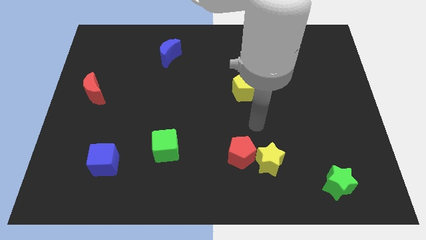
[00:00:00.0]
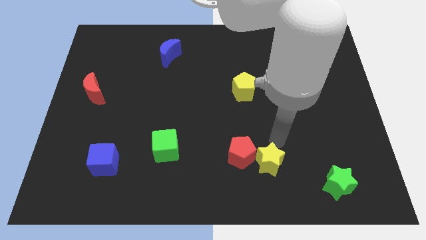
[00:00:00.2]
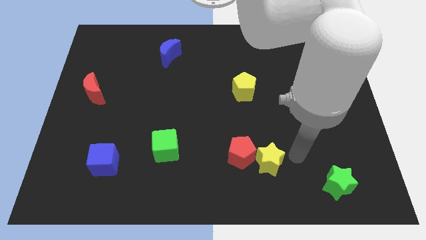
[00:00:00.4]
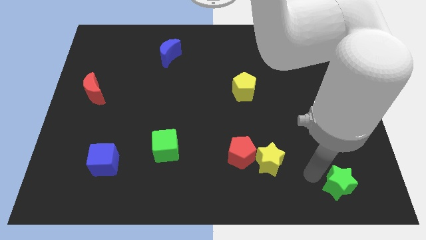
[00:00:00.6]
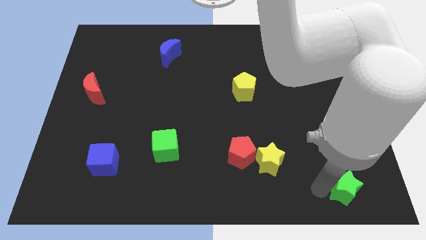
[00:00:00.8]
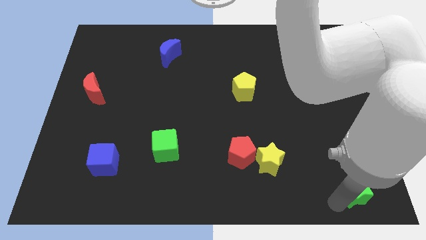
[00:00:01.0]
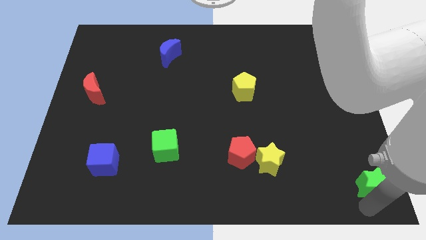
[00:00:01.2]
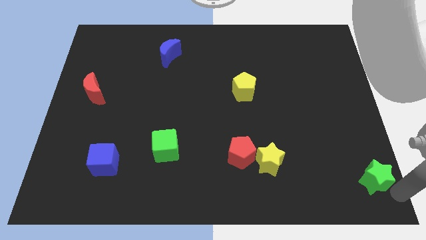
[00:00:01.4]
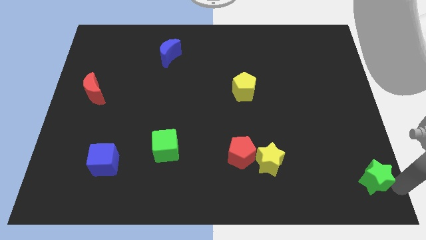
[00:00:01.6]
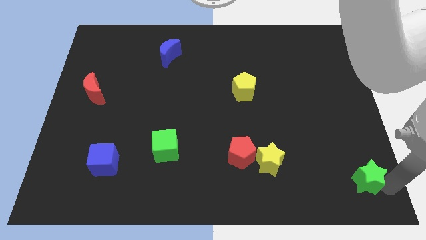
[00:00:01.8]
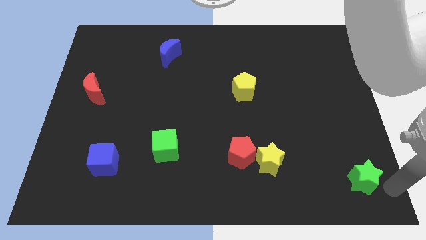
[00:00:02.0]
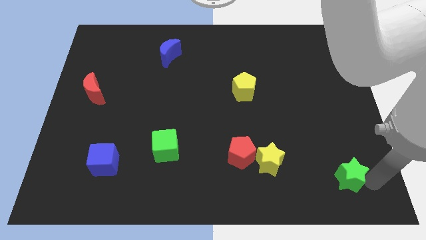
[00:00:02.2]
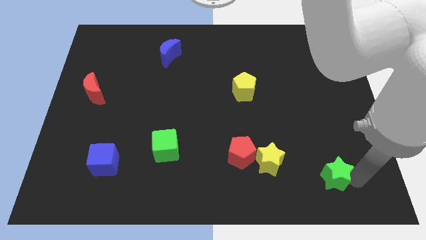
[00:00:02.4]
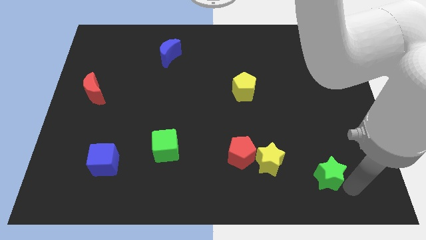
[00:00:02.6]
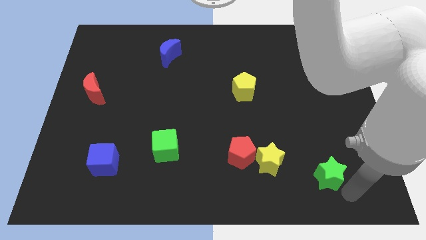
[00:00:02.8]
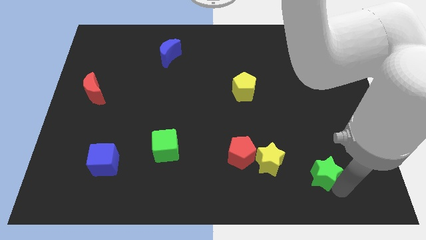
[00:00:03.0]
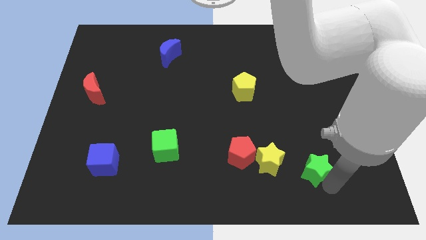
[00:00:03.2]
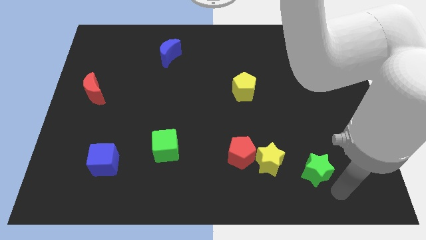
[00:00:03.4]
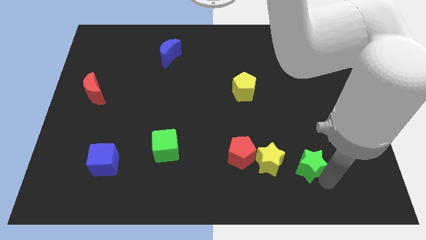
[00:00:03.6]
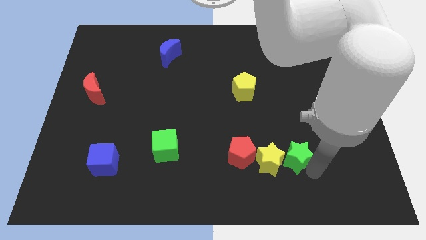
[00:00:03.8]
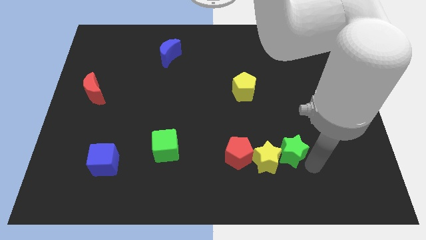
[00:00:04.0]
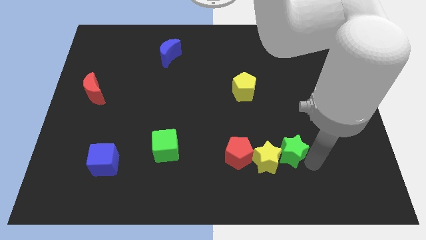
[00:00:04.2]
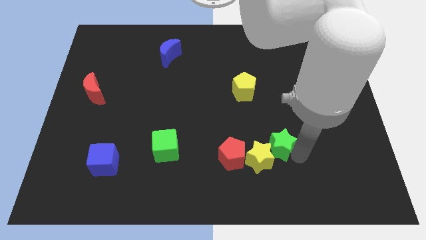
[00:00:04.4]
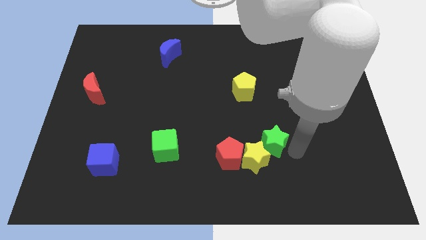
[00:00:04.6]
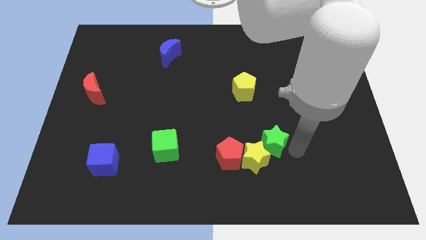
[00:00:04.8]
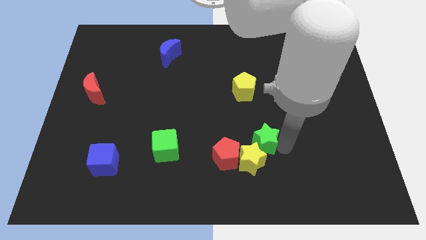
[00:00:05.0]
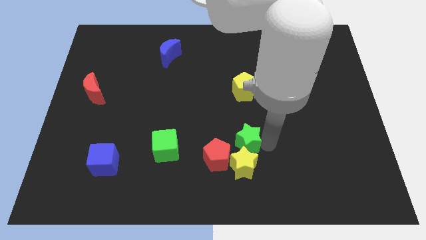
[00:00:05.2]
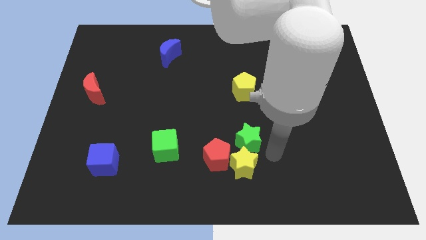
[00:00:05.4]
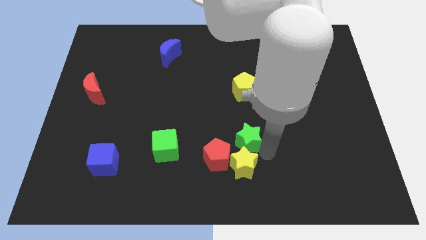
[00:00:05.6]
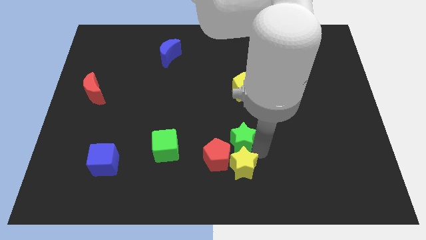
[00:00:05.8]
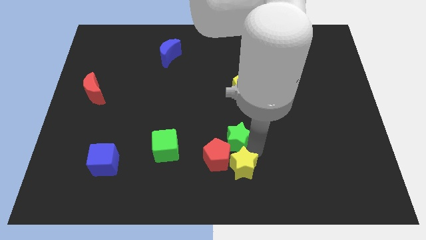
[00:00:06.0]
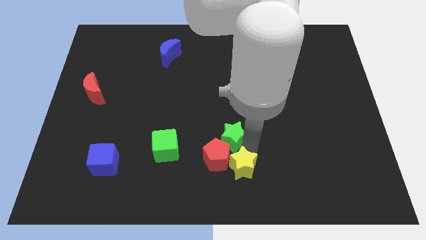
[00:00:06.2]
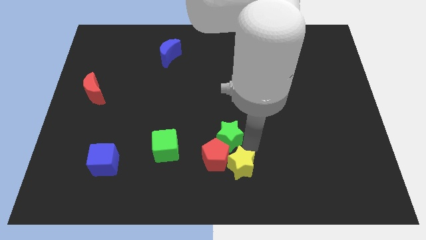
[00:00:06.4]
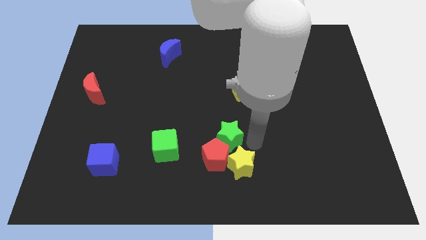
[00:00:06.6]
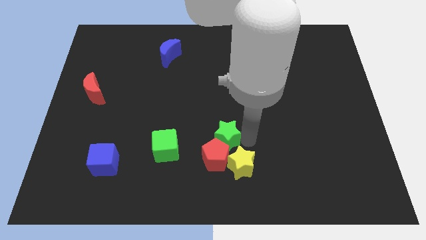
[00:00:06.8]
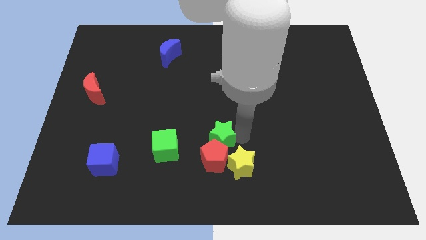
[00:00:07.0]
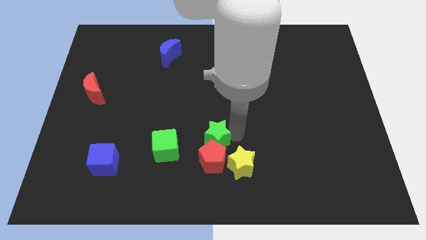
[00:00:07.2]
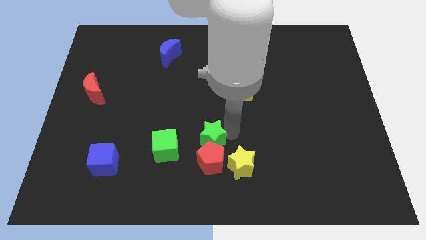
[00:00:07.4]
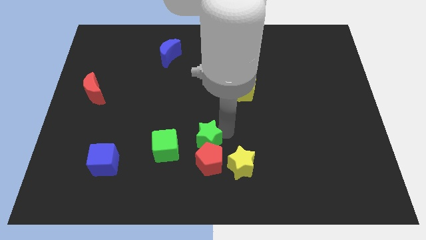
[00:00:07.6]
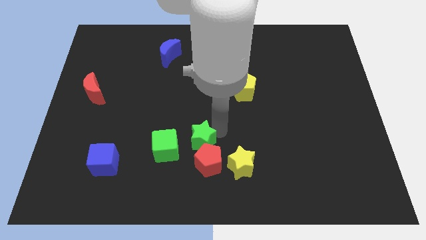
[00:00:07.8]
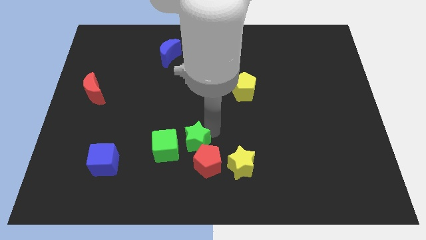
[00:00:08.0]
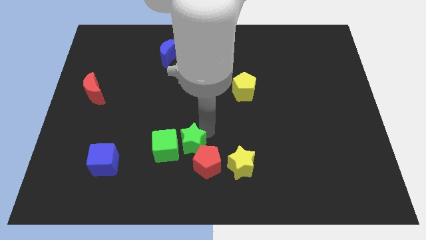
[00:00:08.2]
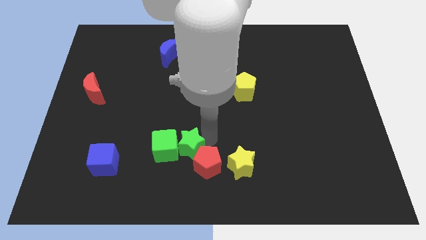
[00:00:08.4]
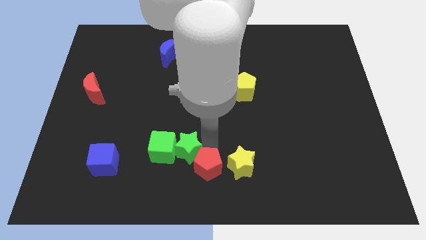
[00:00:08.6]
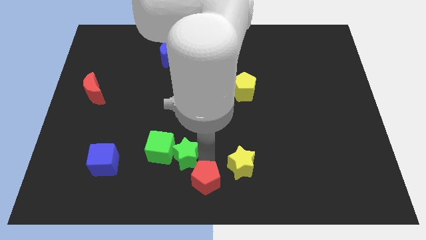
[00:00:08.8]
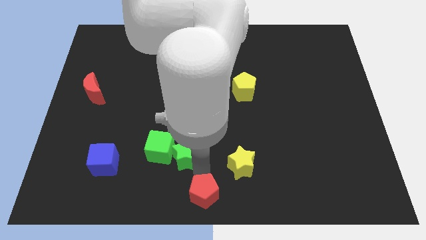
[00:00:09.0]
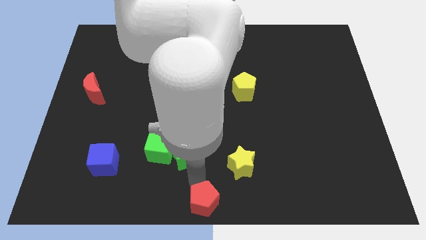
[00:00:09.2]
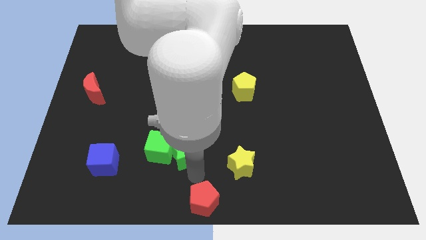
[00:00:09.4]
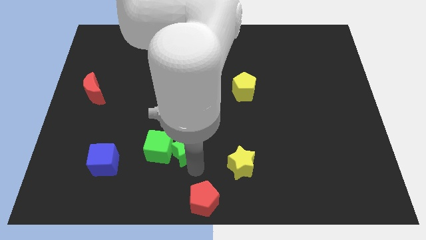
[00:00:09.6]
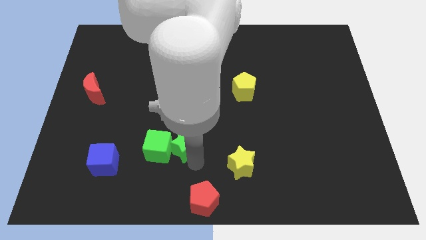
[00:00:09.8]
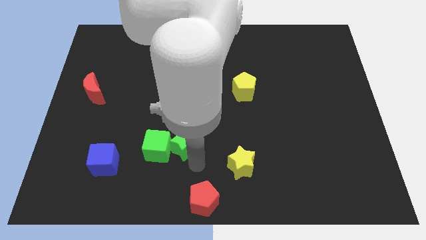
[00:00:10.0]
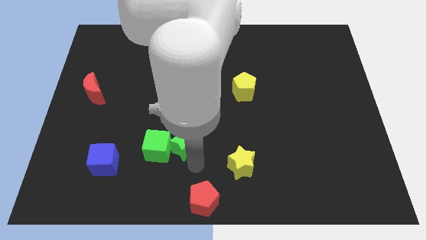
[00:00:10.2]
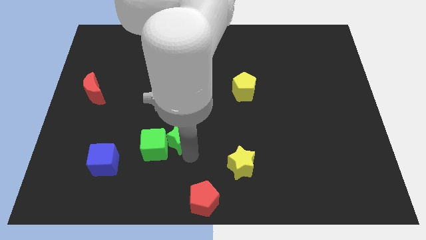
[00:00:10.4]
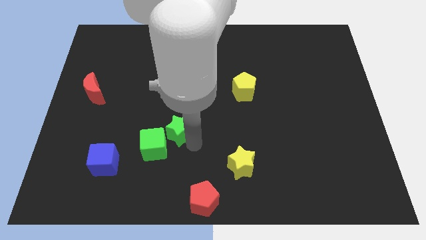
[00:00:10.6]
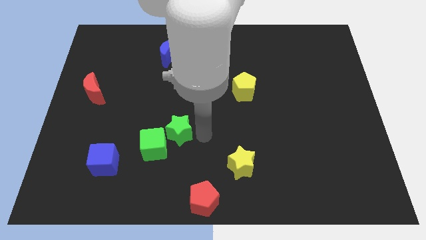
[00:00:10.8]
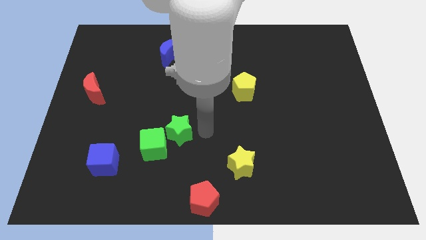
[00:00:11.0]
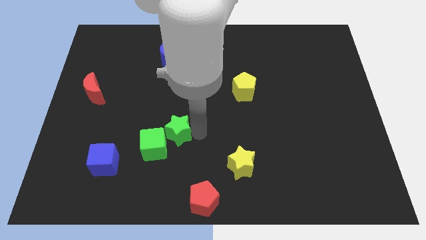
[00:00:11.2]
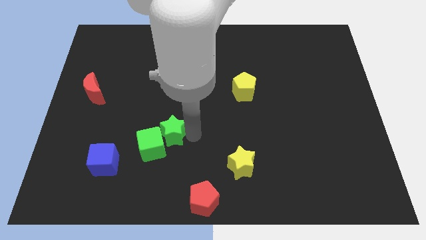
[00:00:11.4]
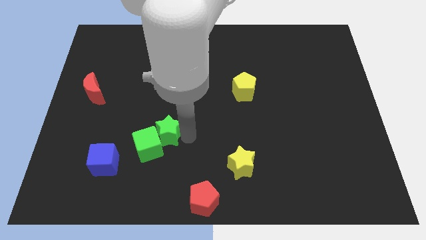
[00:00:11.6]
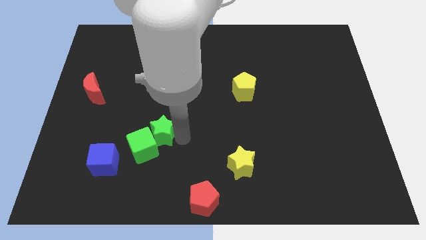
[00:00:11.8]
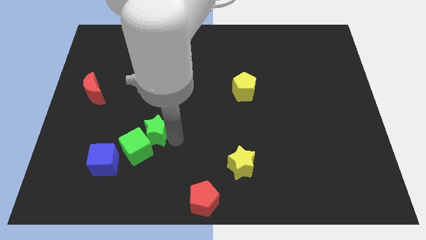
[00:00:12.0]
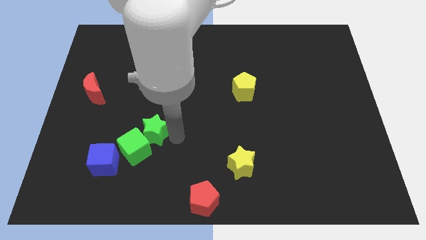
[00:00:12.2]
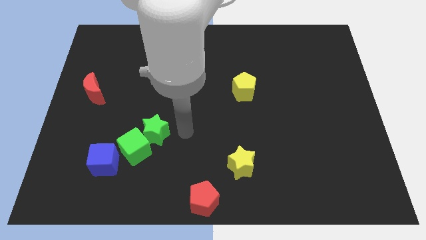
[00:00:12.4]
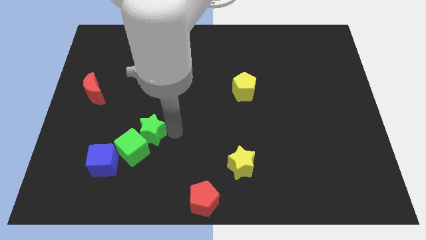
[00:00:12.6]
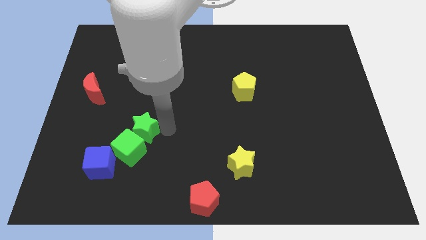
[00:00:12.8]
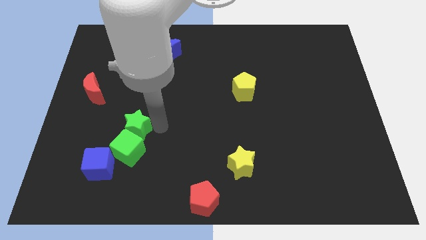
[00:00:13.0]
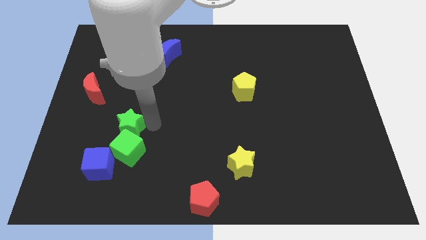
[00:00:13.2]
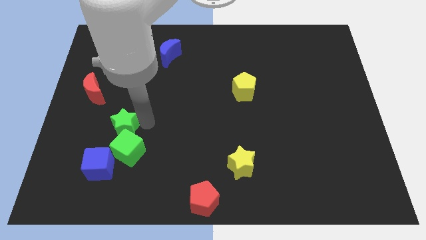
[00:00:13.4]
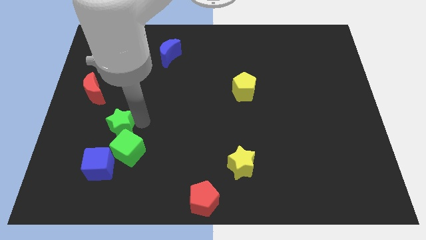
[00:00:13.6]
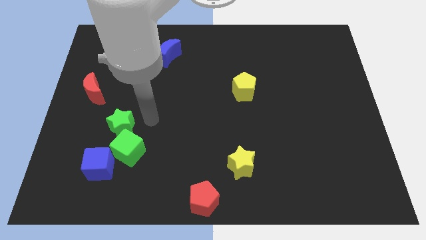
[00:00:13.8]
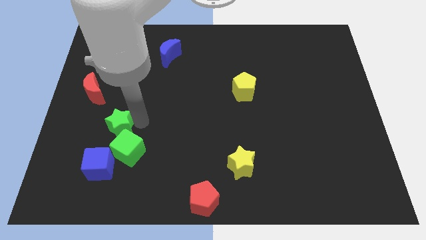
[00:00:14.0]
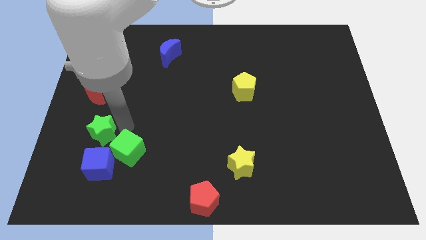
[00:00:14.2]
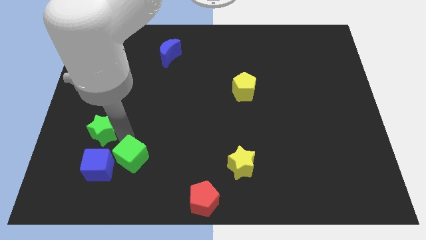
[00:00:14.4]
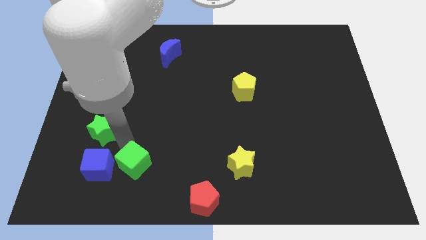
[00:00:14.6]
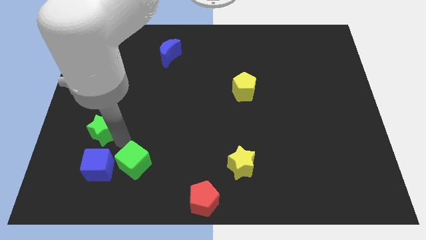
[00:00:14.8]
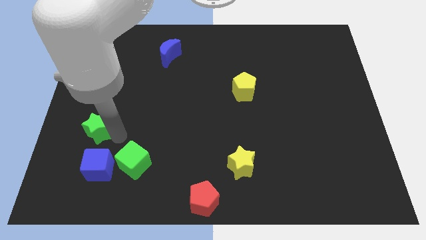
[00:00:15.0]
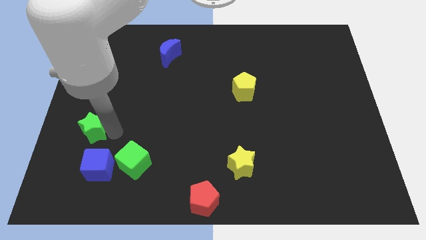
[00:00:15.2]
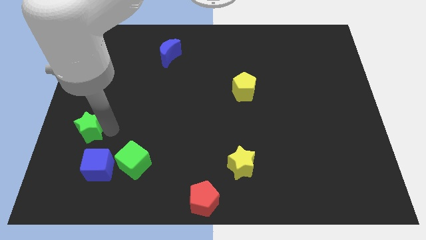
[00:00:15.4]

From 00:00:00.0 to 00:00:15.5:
put the green star to the left side
